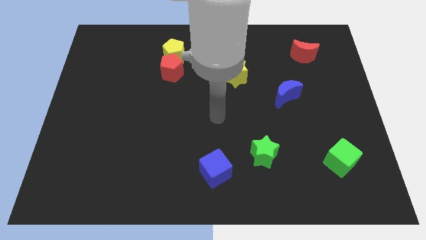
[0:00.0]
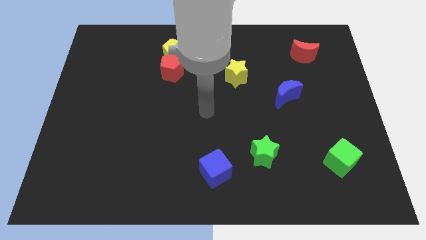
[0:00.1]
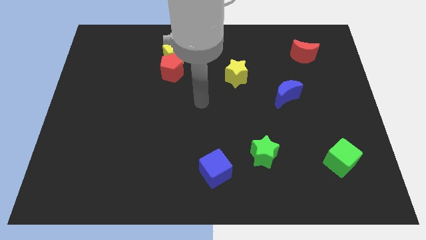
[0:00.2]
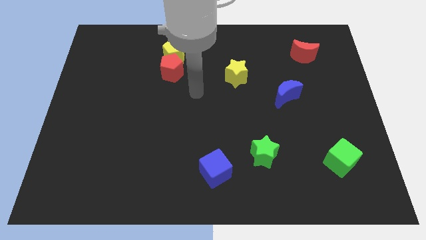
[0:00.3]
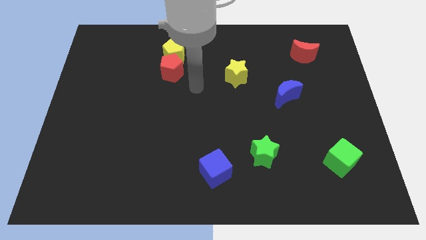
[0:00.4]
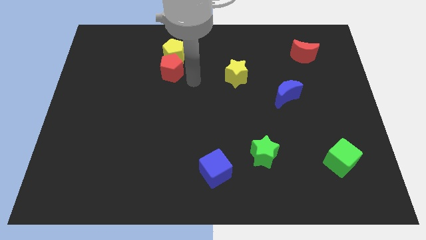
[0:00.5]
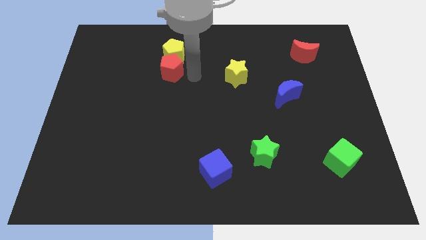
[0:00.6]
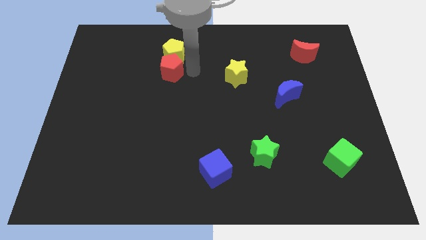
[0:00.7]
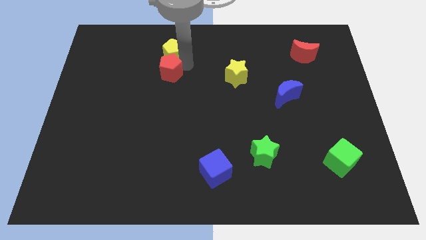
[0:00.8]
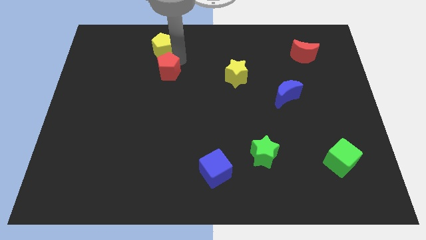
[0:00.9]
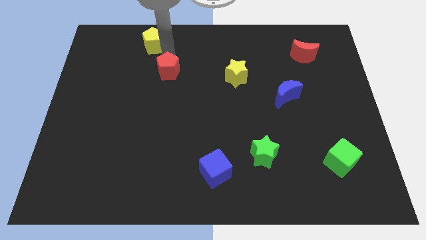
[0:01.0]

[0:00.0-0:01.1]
pull the red pentagon apart from the yellow pentagon

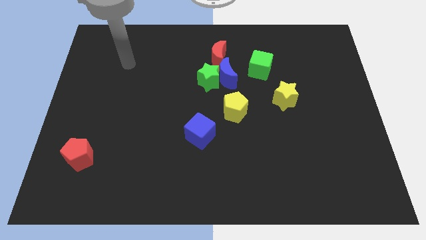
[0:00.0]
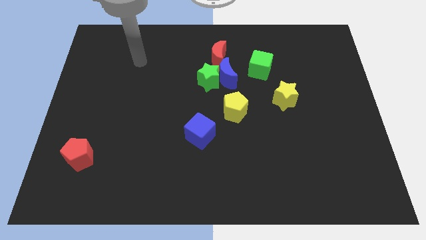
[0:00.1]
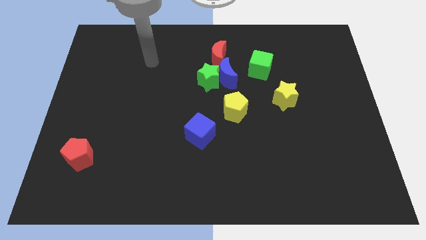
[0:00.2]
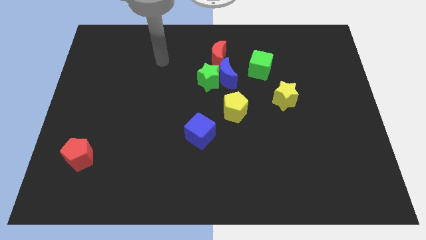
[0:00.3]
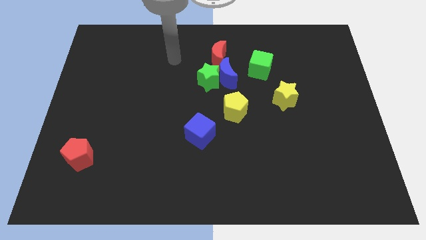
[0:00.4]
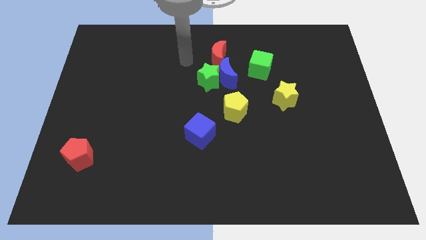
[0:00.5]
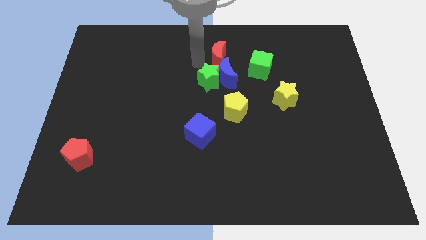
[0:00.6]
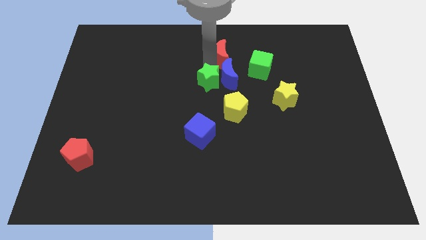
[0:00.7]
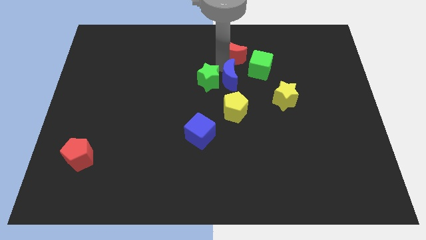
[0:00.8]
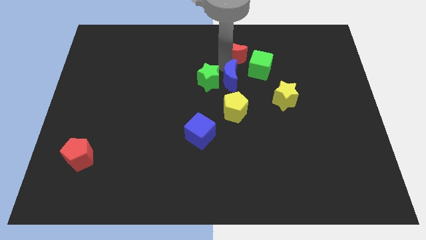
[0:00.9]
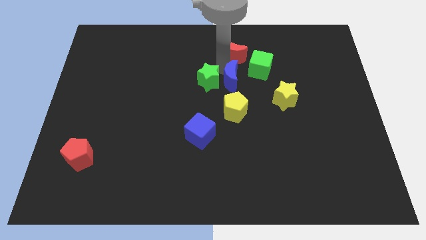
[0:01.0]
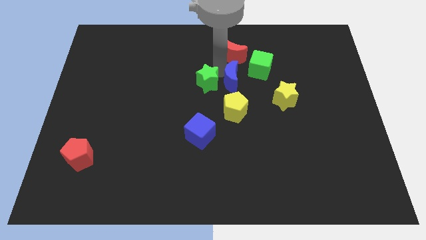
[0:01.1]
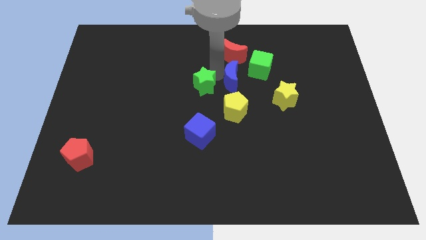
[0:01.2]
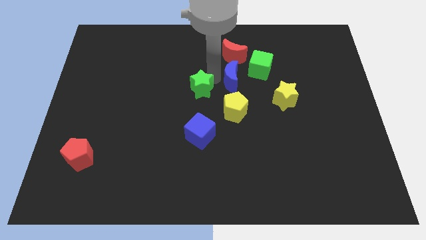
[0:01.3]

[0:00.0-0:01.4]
pull the green star apart from the blue moon and red moon

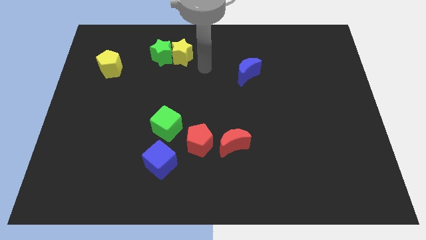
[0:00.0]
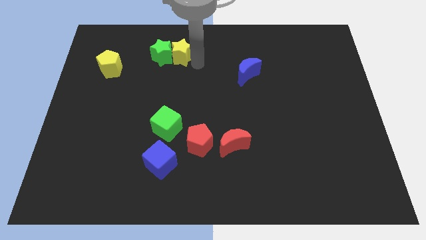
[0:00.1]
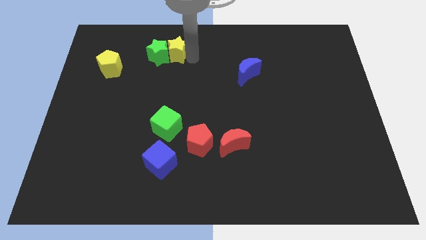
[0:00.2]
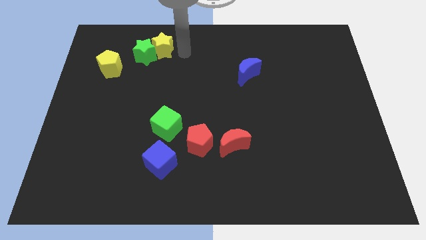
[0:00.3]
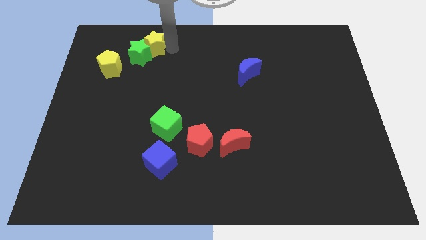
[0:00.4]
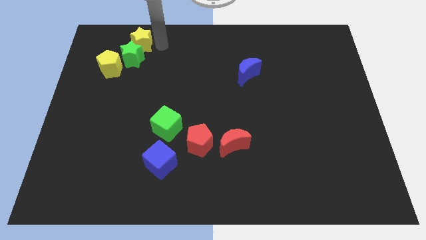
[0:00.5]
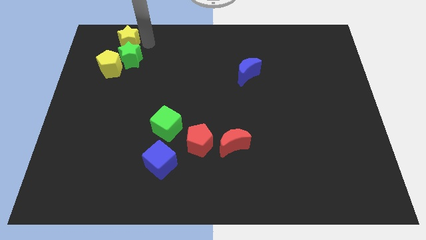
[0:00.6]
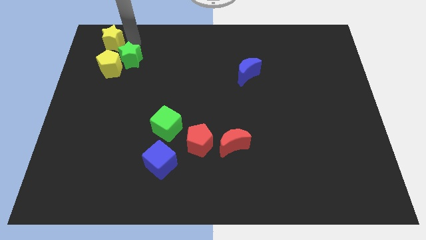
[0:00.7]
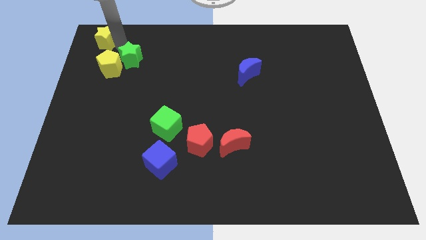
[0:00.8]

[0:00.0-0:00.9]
pull the green star apart from the yellow star

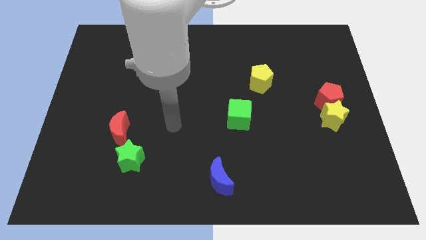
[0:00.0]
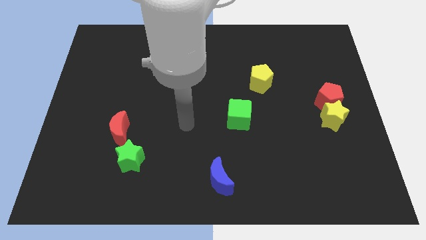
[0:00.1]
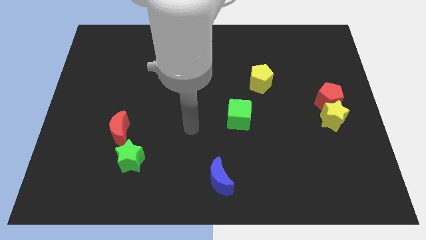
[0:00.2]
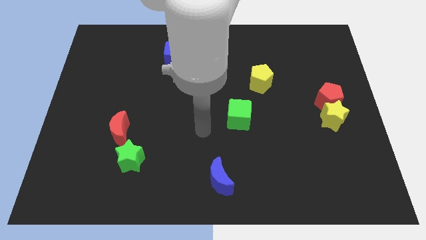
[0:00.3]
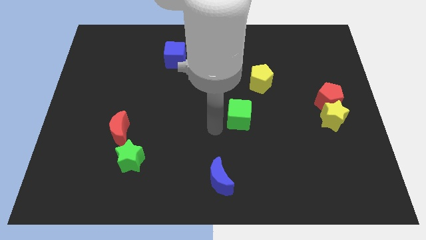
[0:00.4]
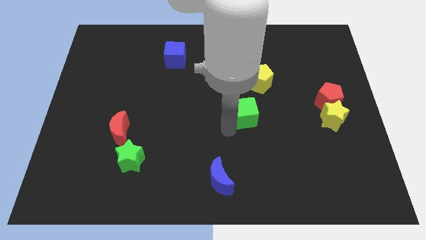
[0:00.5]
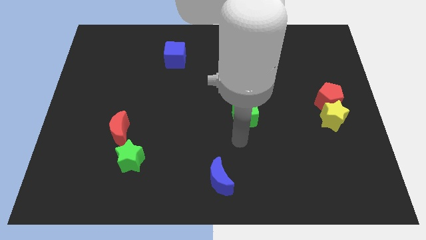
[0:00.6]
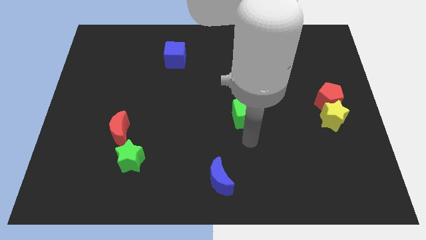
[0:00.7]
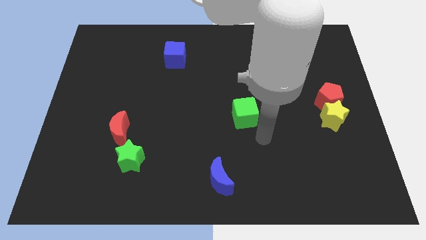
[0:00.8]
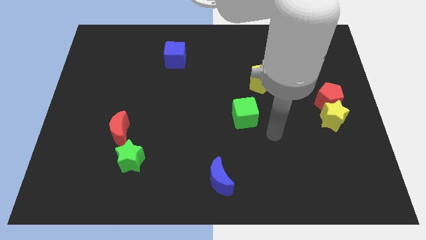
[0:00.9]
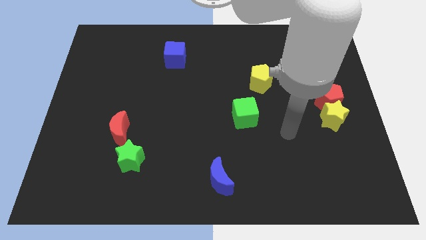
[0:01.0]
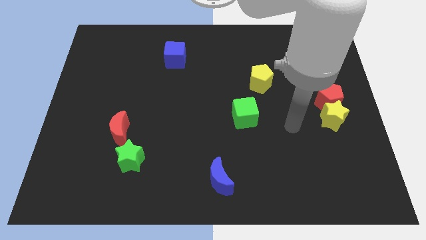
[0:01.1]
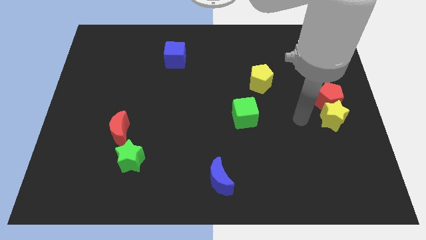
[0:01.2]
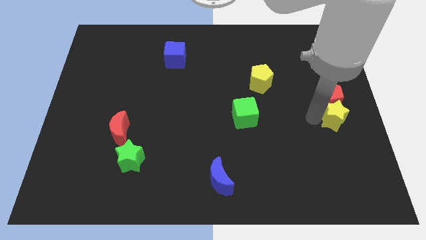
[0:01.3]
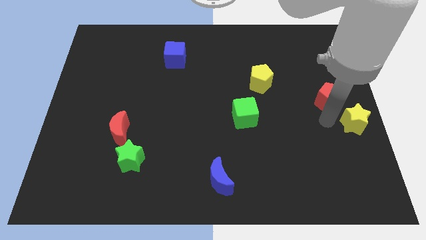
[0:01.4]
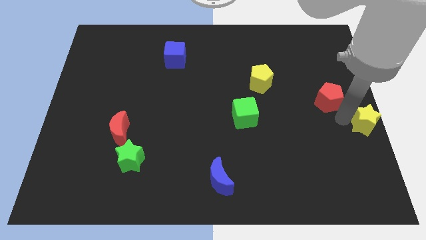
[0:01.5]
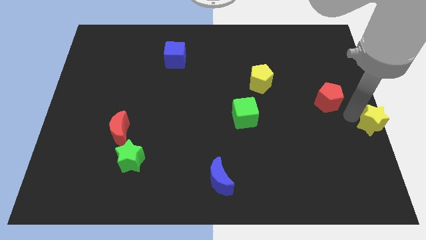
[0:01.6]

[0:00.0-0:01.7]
pull the red pentagon apart from the yellow star

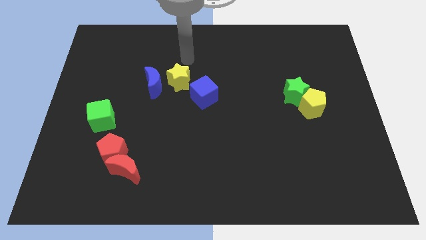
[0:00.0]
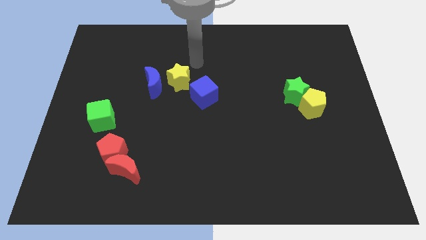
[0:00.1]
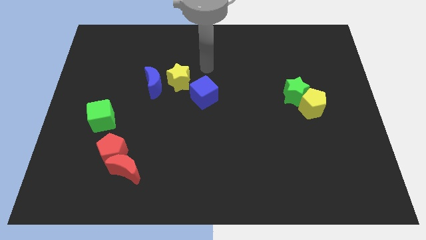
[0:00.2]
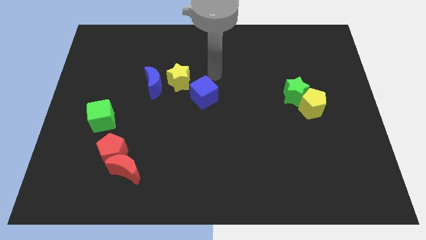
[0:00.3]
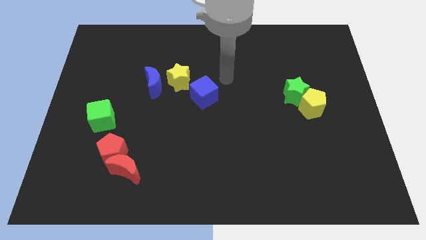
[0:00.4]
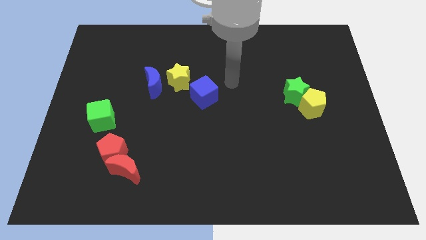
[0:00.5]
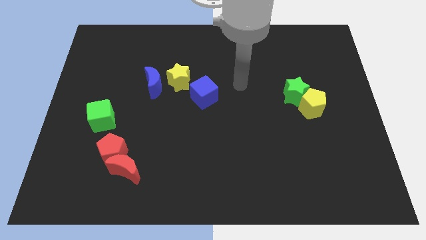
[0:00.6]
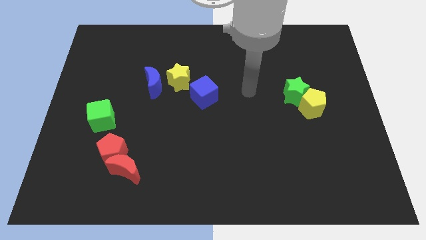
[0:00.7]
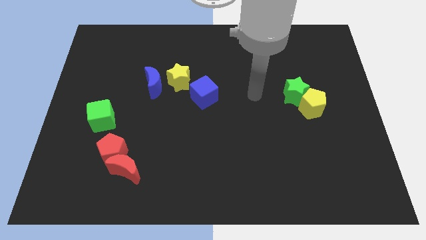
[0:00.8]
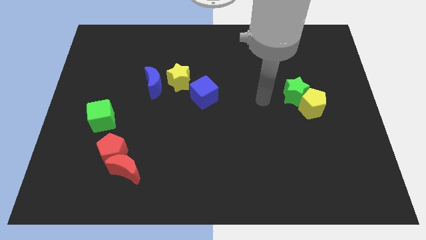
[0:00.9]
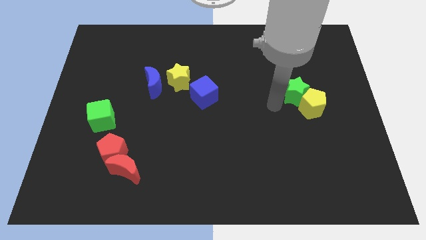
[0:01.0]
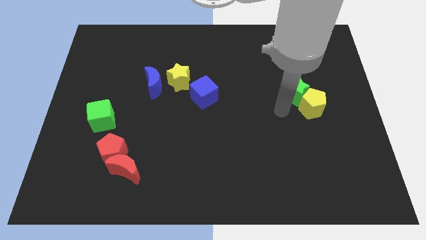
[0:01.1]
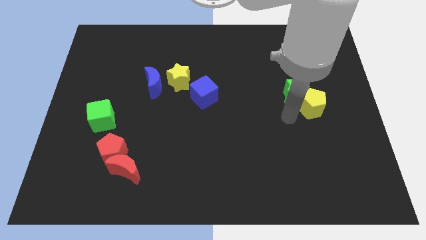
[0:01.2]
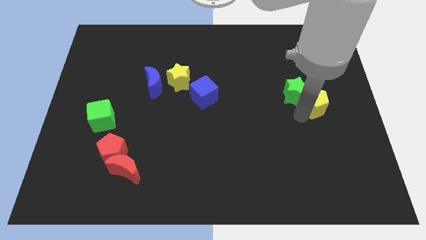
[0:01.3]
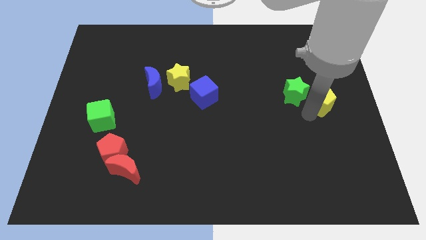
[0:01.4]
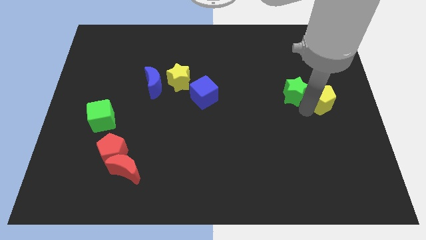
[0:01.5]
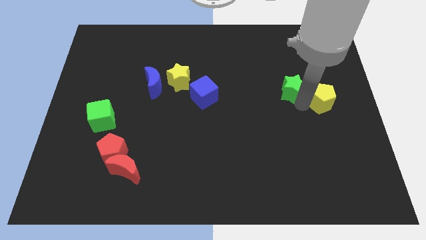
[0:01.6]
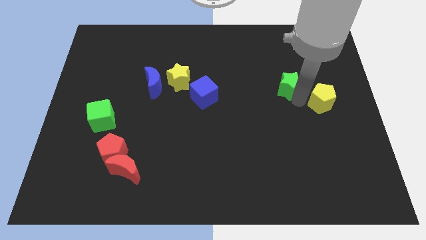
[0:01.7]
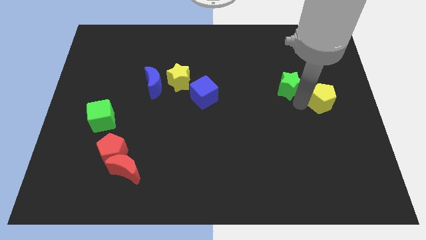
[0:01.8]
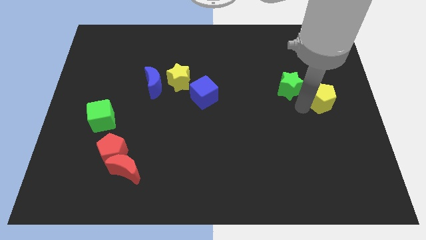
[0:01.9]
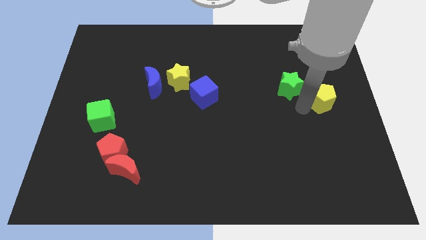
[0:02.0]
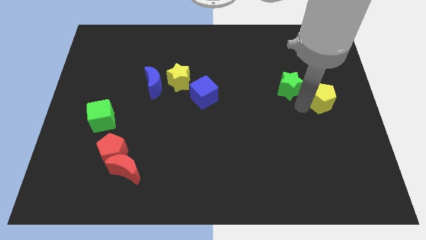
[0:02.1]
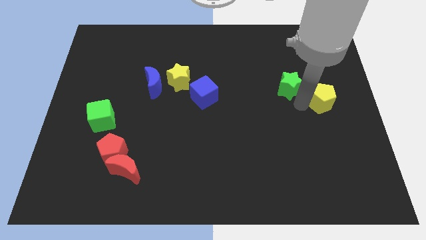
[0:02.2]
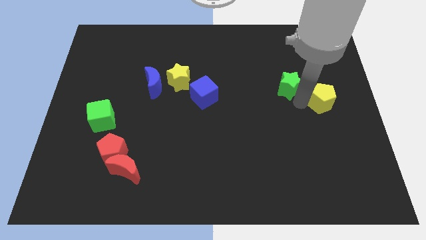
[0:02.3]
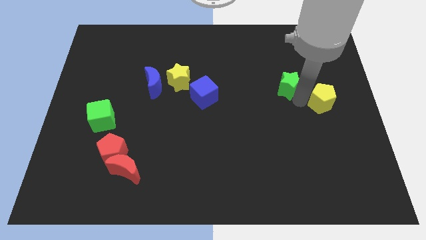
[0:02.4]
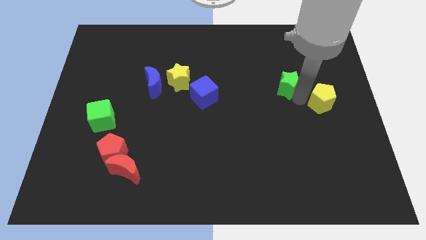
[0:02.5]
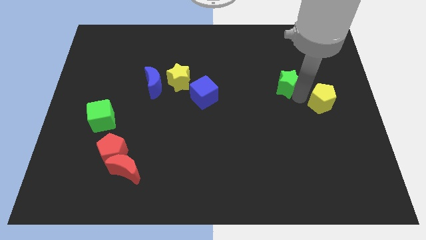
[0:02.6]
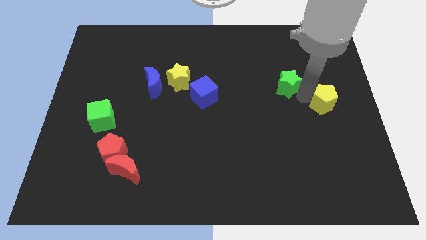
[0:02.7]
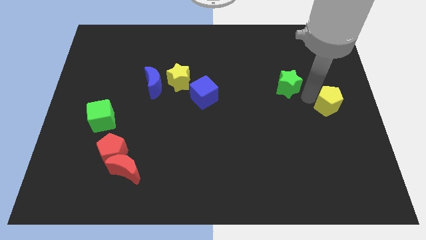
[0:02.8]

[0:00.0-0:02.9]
pull the green star apart from the yellow pentagon

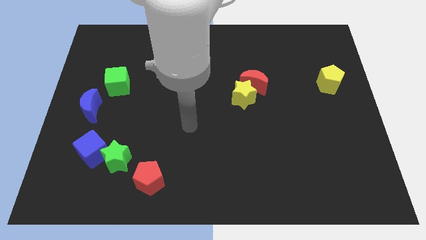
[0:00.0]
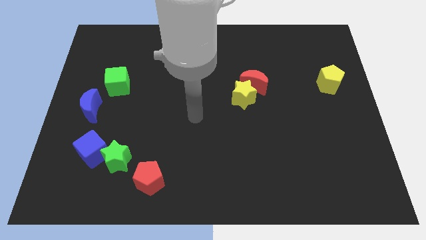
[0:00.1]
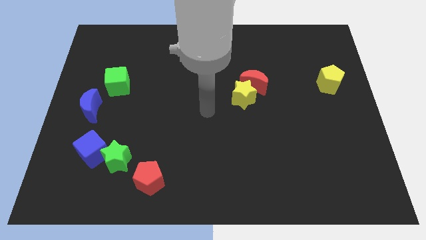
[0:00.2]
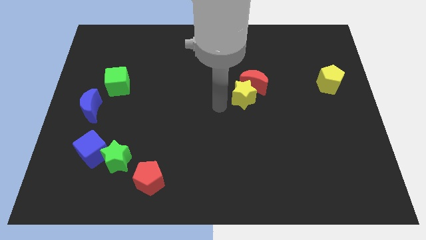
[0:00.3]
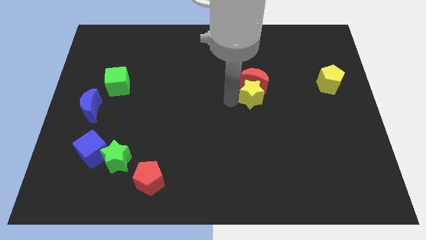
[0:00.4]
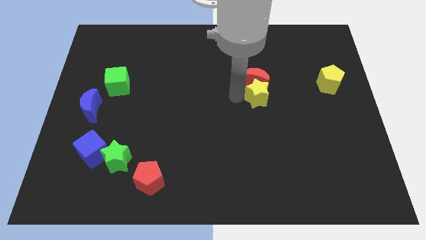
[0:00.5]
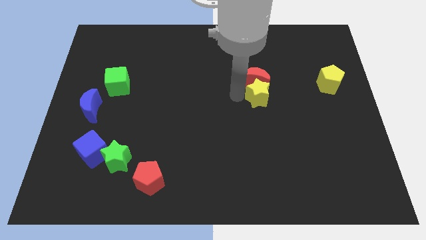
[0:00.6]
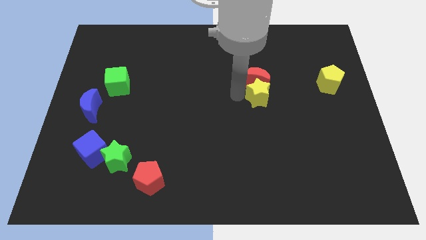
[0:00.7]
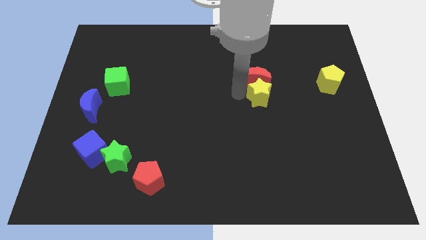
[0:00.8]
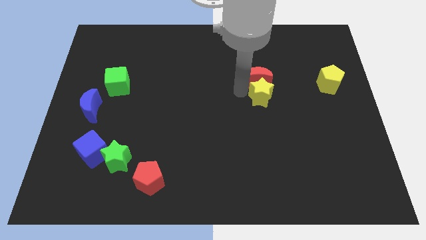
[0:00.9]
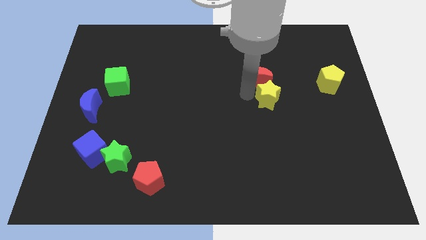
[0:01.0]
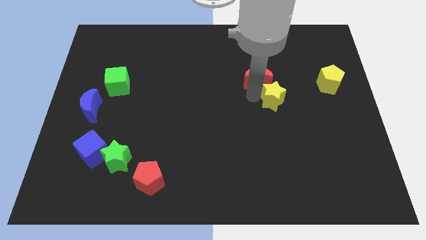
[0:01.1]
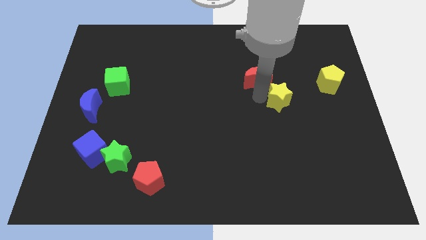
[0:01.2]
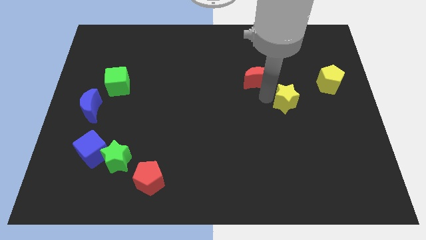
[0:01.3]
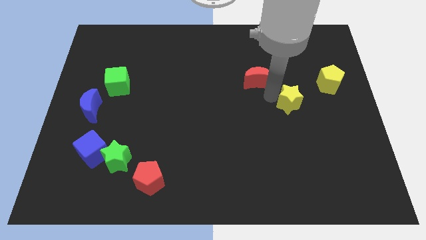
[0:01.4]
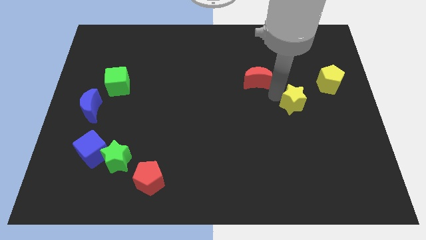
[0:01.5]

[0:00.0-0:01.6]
move the red moon away from the yellow star
